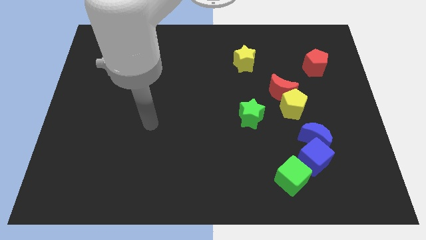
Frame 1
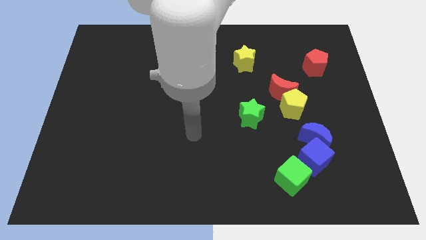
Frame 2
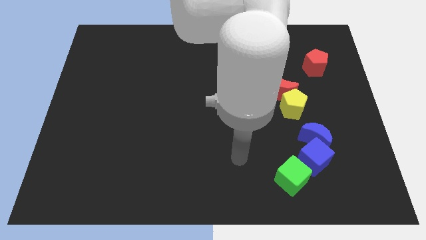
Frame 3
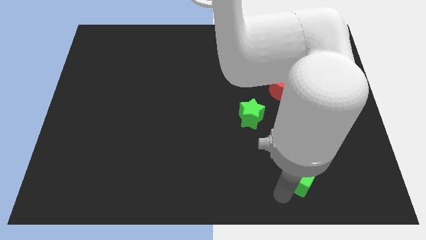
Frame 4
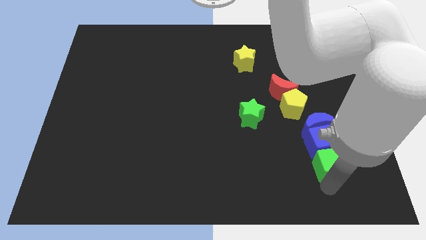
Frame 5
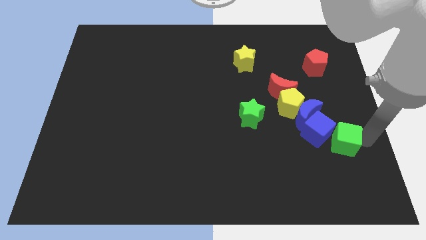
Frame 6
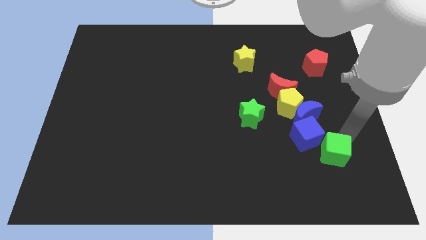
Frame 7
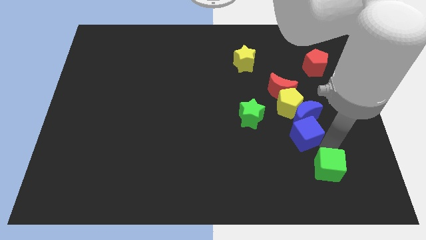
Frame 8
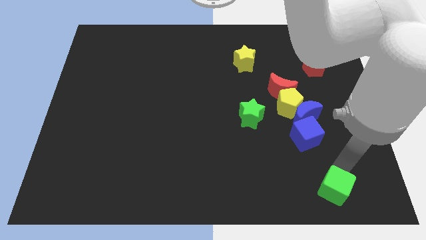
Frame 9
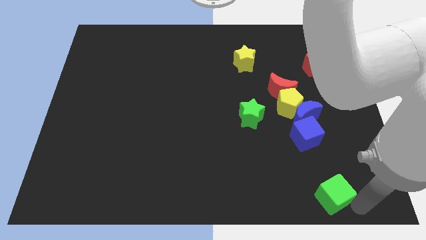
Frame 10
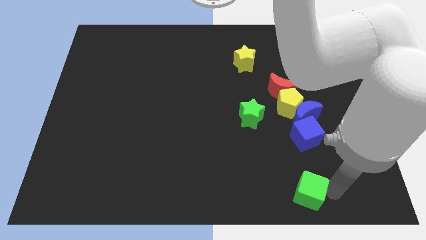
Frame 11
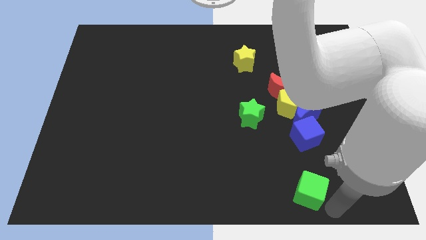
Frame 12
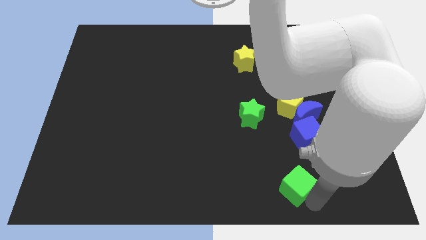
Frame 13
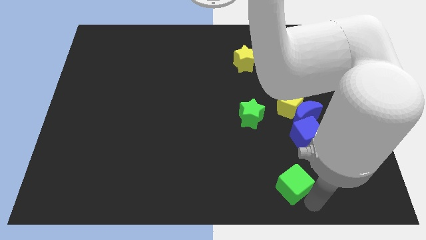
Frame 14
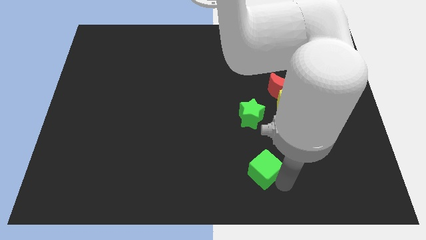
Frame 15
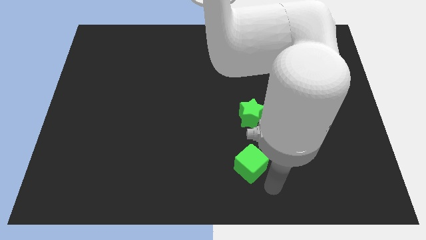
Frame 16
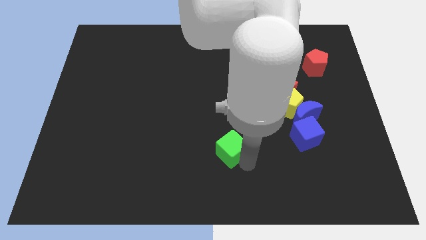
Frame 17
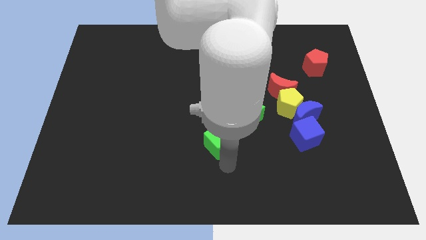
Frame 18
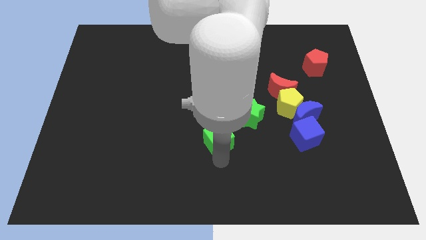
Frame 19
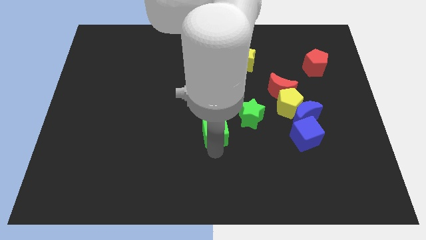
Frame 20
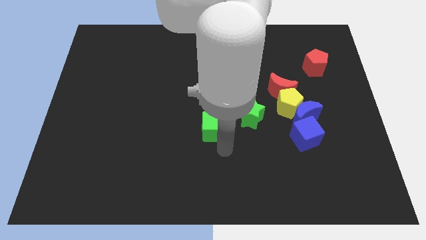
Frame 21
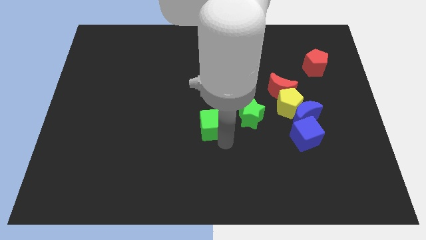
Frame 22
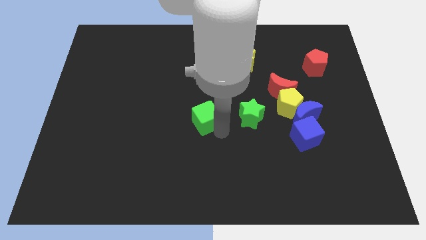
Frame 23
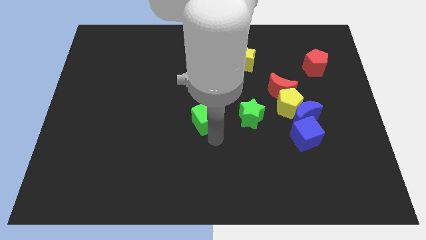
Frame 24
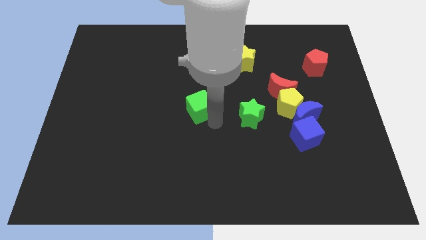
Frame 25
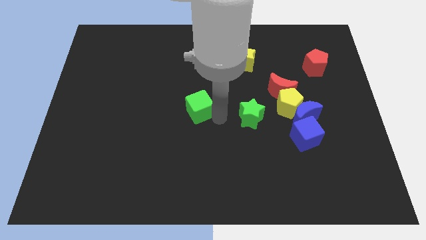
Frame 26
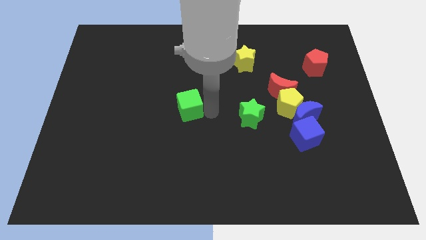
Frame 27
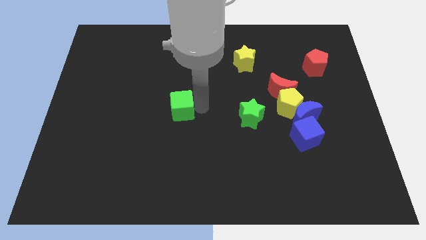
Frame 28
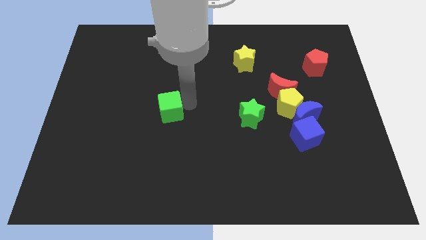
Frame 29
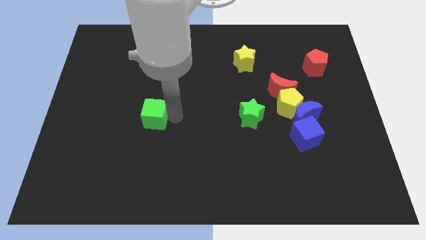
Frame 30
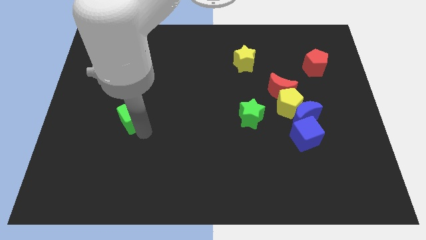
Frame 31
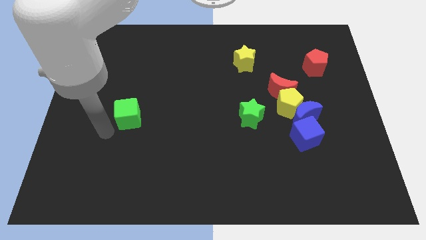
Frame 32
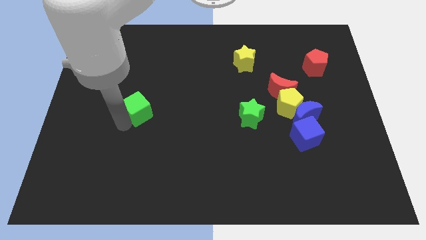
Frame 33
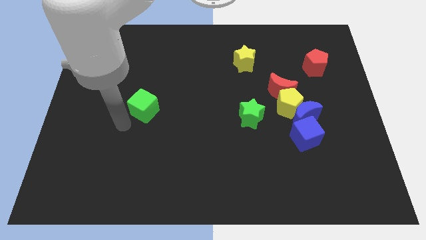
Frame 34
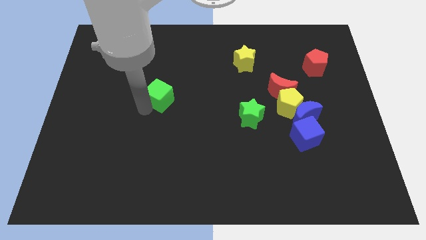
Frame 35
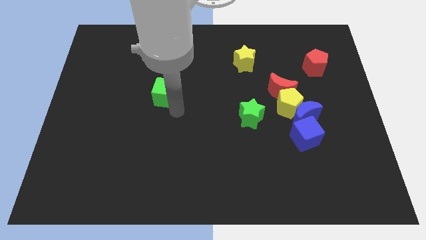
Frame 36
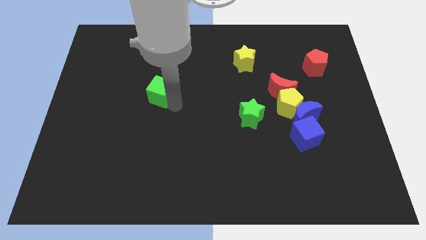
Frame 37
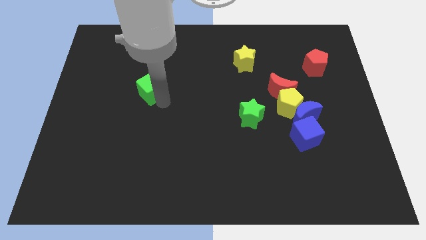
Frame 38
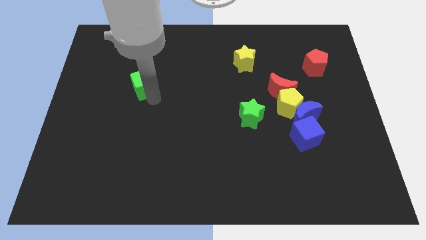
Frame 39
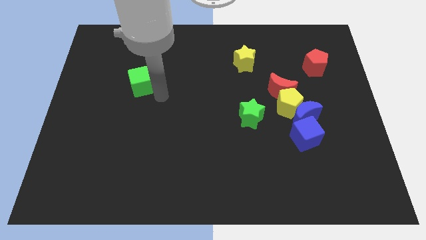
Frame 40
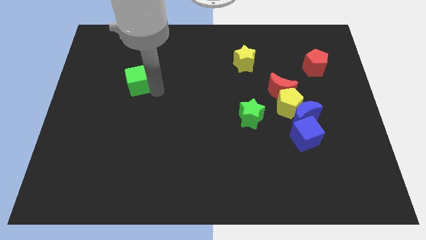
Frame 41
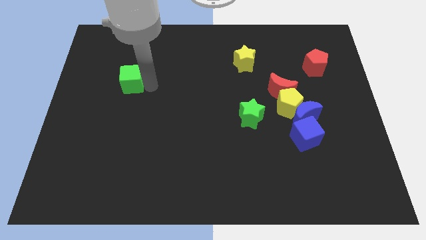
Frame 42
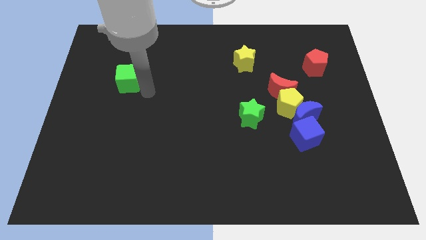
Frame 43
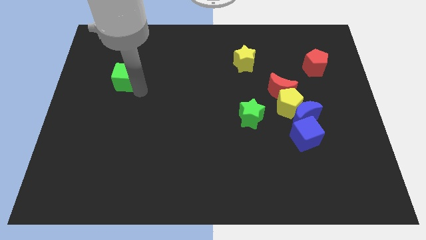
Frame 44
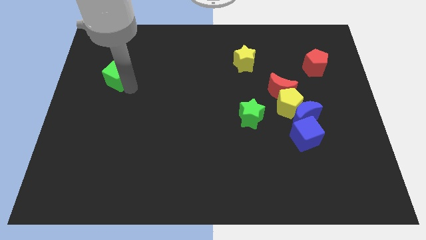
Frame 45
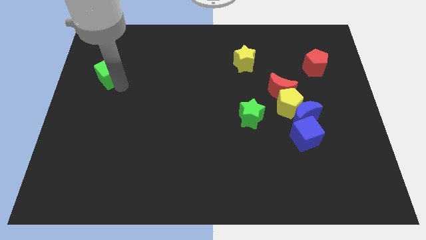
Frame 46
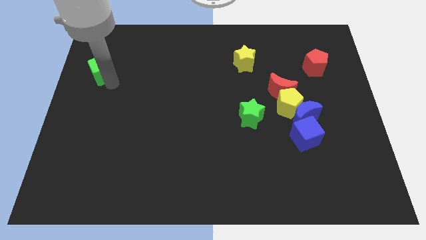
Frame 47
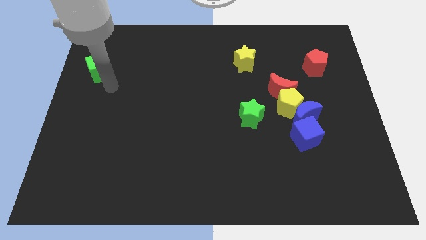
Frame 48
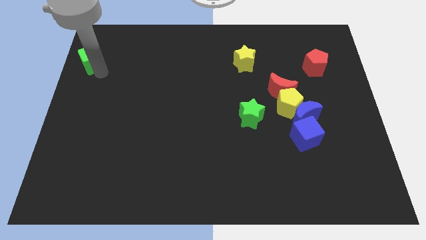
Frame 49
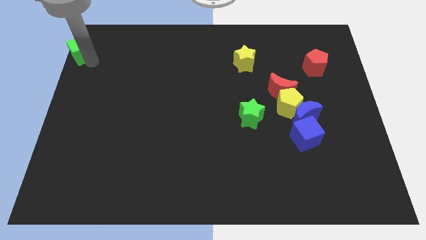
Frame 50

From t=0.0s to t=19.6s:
put the green cube to the upper left corner

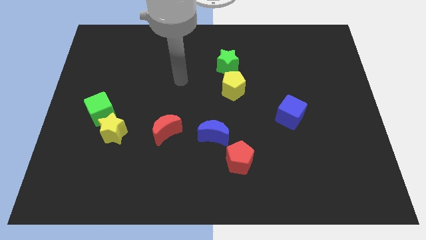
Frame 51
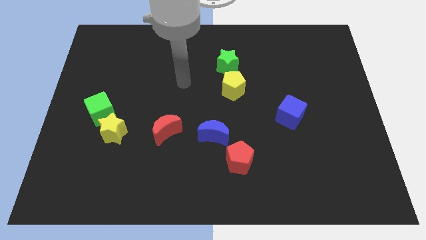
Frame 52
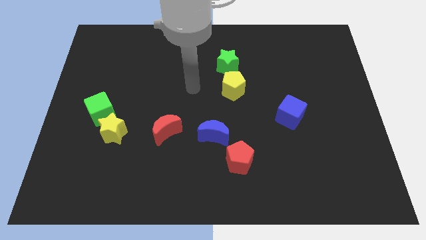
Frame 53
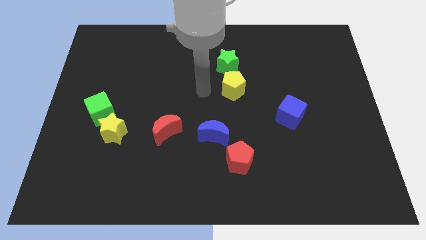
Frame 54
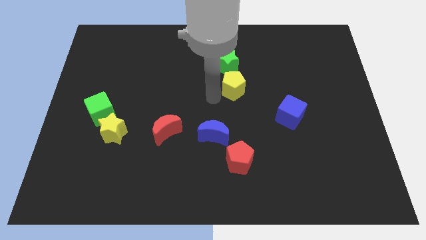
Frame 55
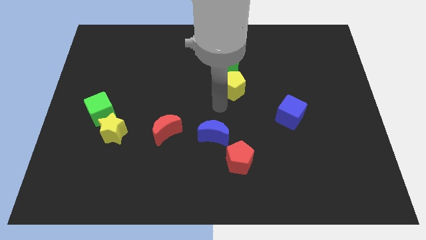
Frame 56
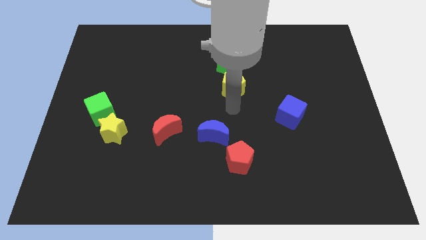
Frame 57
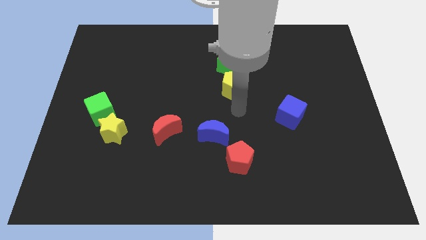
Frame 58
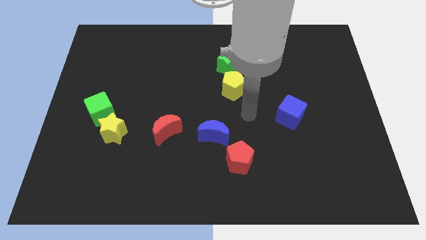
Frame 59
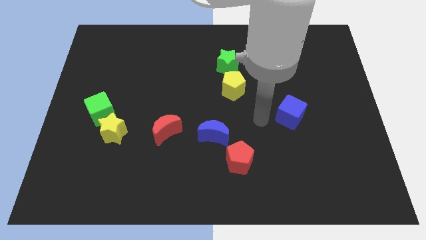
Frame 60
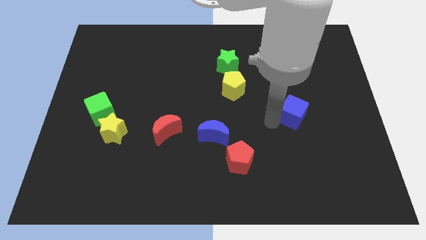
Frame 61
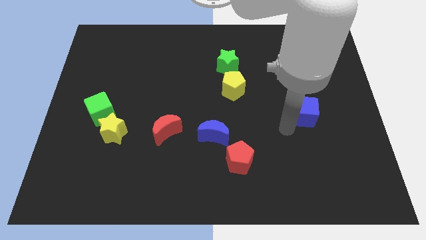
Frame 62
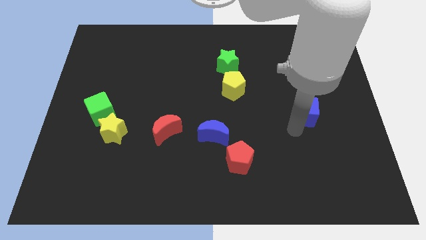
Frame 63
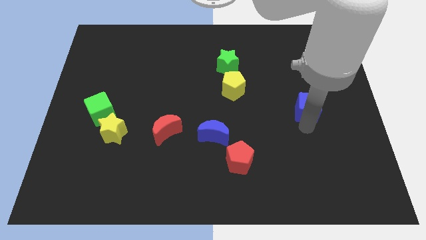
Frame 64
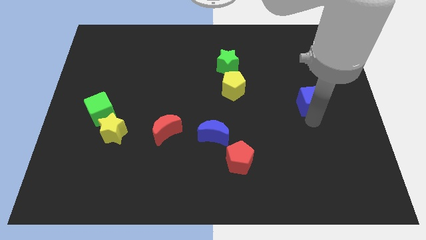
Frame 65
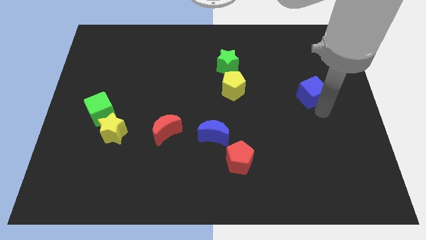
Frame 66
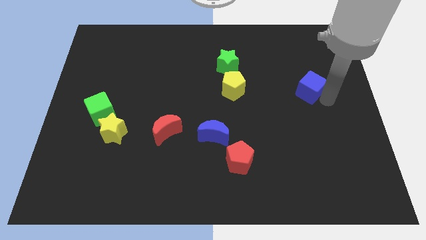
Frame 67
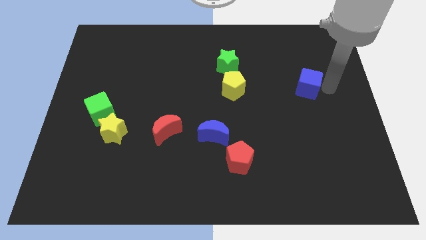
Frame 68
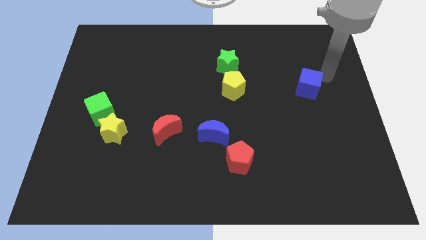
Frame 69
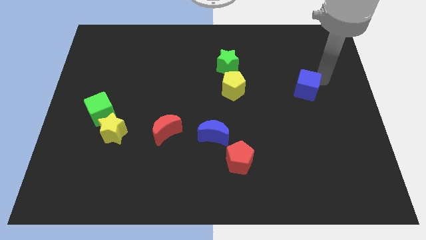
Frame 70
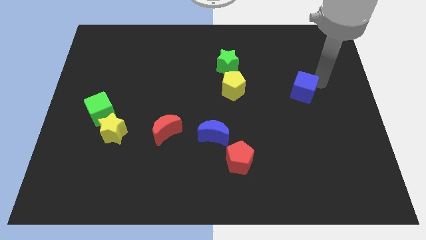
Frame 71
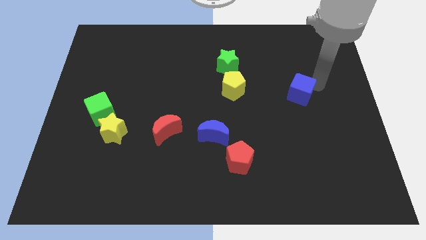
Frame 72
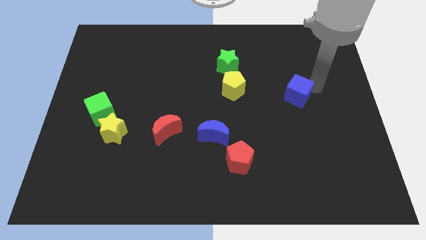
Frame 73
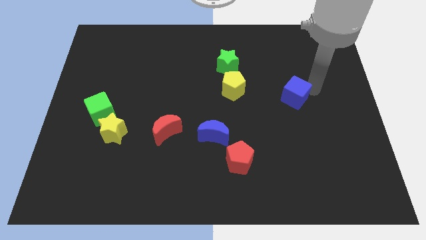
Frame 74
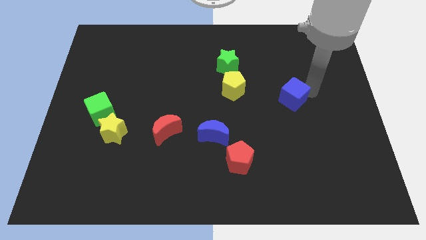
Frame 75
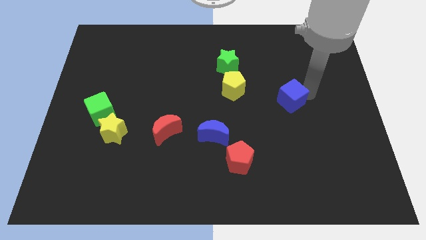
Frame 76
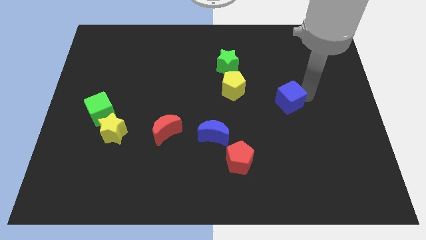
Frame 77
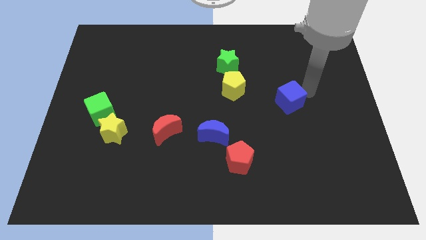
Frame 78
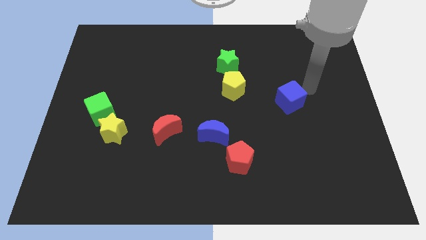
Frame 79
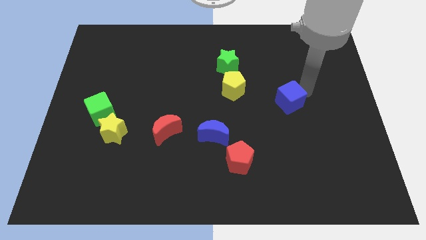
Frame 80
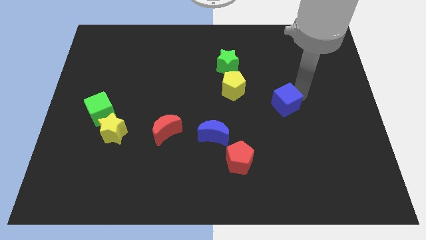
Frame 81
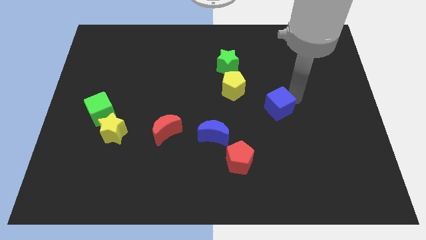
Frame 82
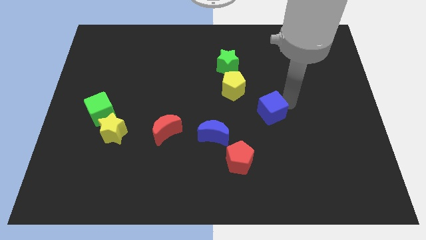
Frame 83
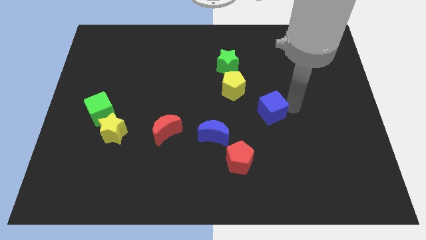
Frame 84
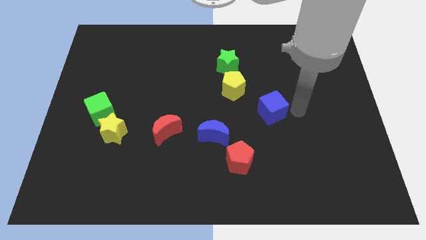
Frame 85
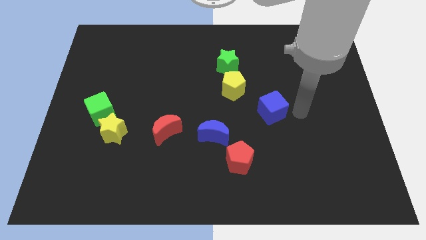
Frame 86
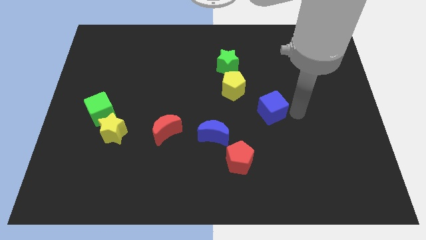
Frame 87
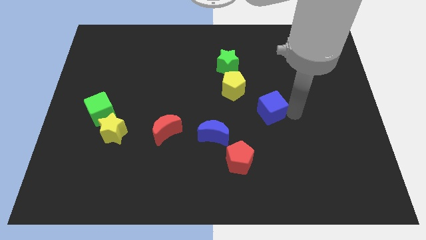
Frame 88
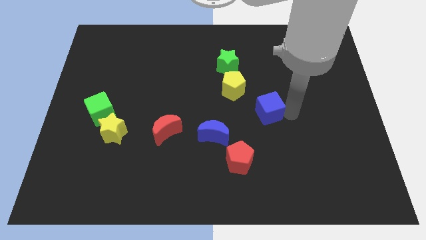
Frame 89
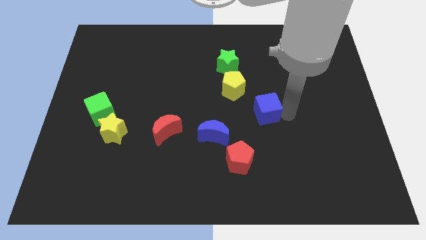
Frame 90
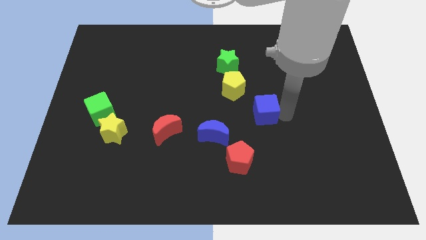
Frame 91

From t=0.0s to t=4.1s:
slide the blue cube to the center of the board
